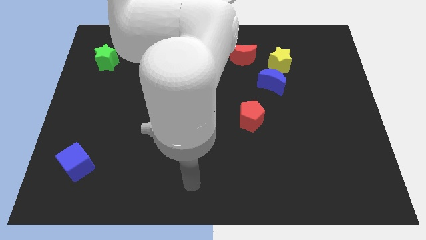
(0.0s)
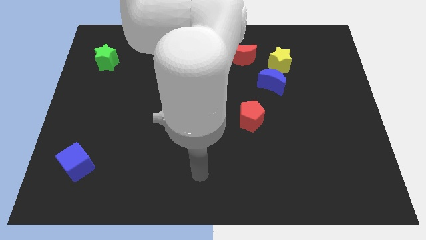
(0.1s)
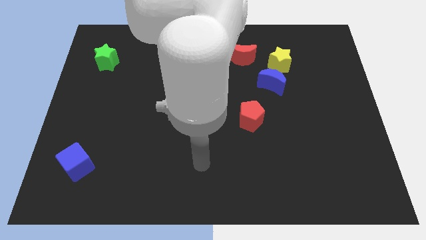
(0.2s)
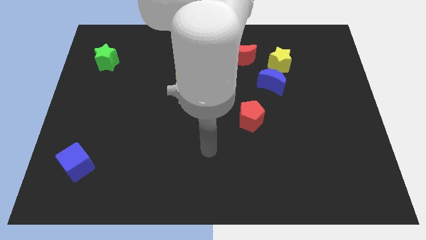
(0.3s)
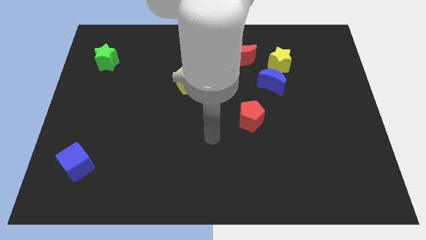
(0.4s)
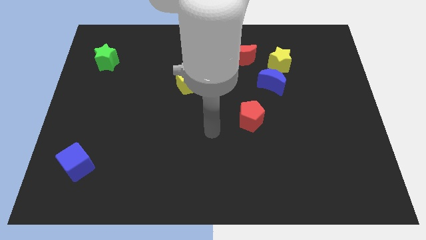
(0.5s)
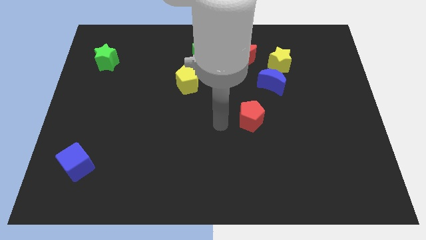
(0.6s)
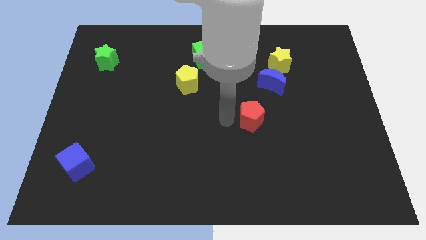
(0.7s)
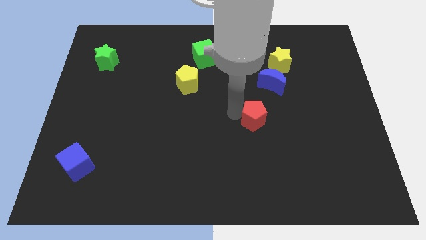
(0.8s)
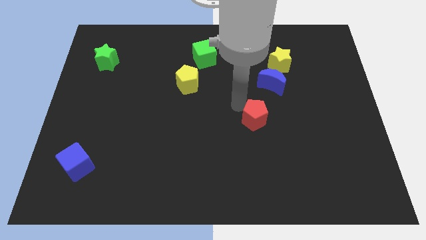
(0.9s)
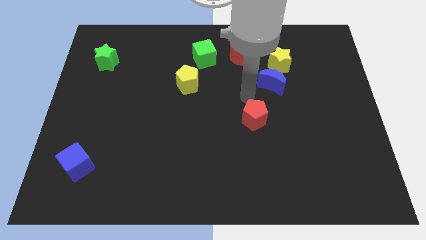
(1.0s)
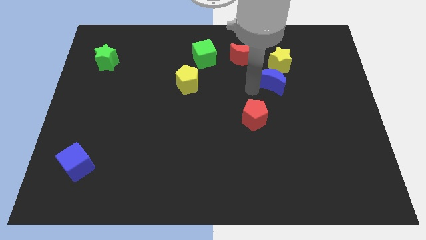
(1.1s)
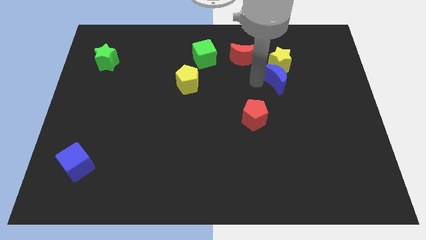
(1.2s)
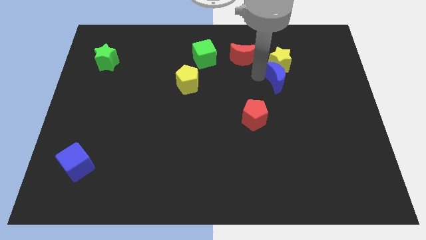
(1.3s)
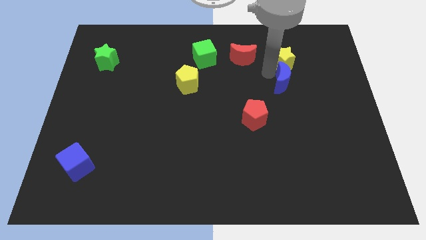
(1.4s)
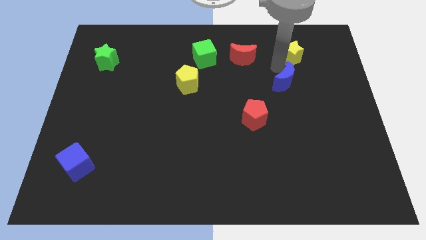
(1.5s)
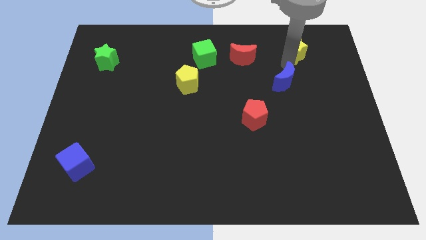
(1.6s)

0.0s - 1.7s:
move the blue moon away from the yellow star

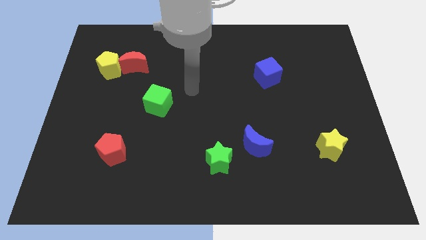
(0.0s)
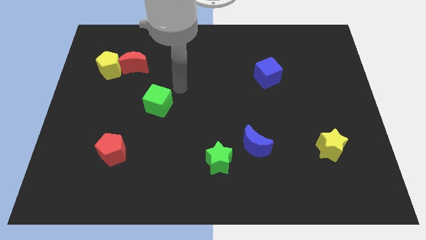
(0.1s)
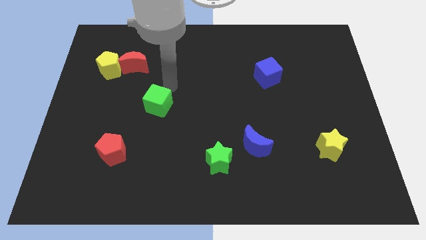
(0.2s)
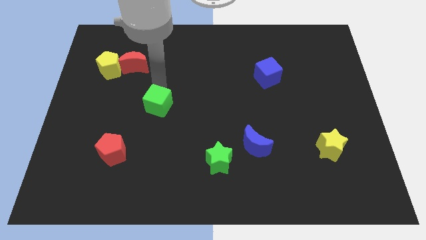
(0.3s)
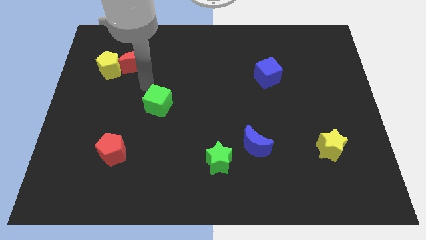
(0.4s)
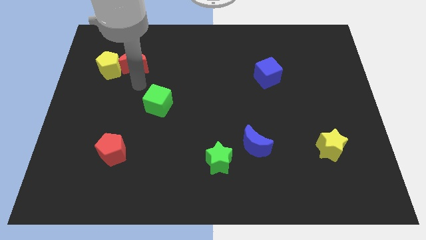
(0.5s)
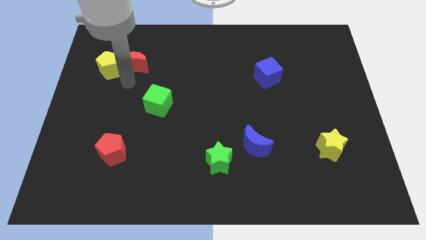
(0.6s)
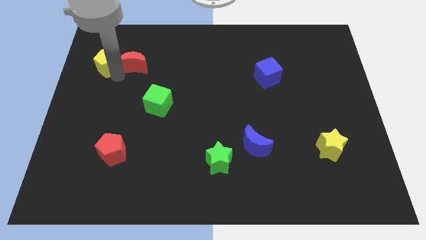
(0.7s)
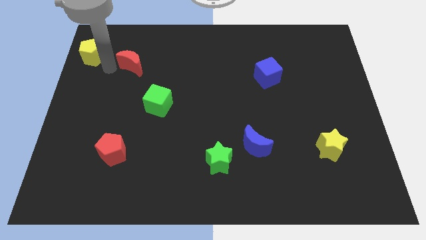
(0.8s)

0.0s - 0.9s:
separate the red moon from the yellow pentagon

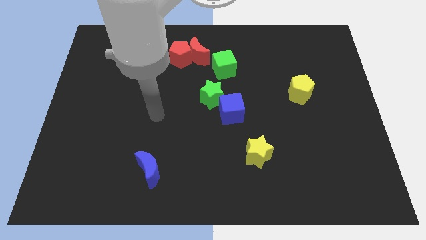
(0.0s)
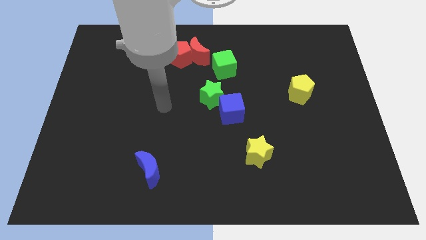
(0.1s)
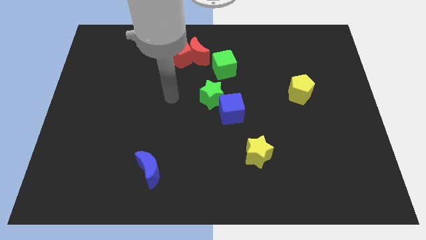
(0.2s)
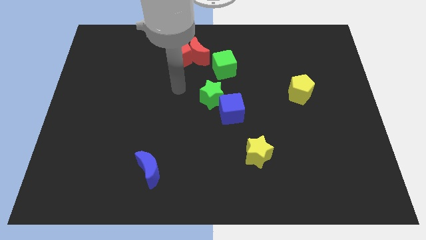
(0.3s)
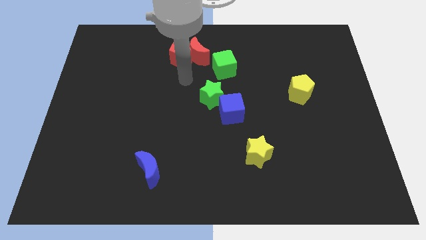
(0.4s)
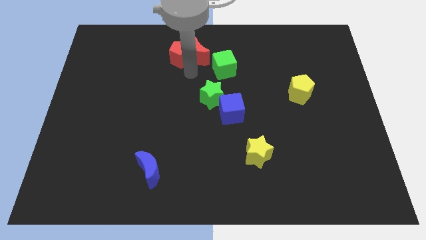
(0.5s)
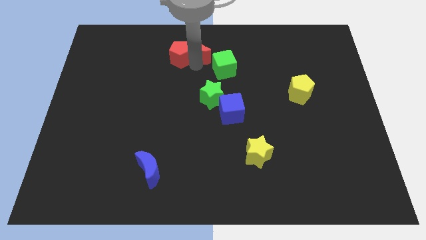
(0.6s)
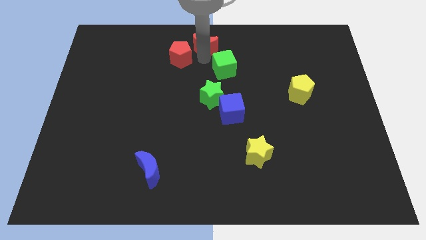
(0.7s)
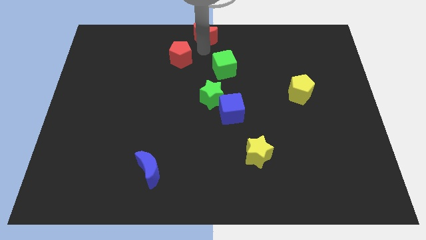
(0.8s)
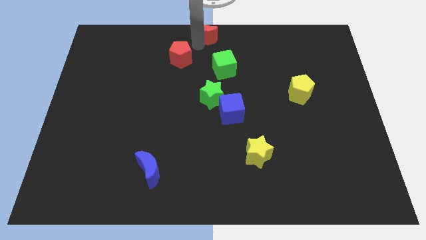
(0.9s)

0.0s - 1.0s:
pull the red pentagon apart from the red moon

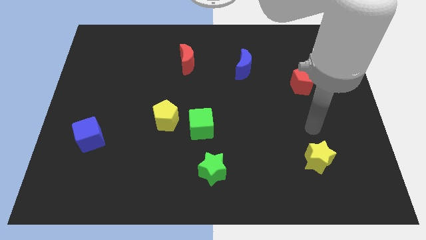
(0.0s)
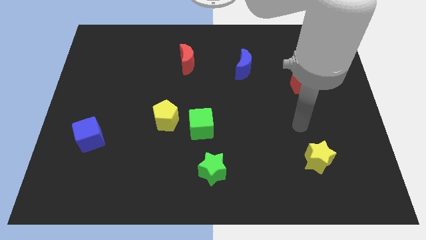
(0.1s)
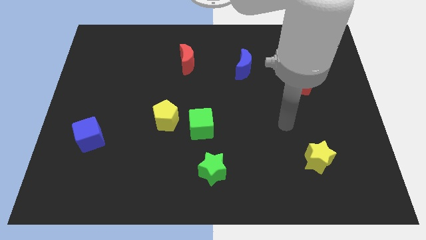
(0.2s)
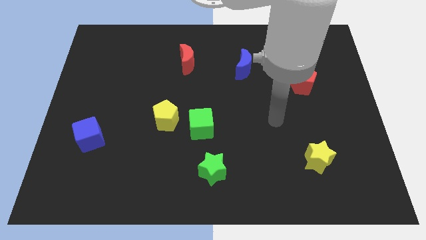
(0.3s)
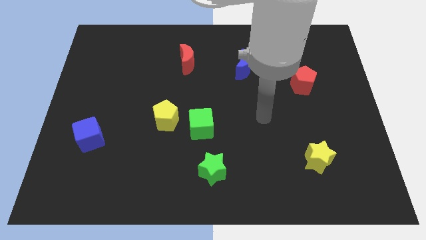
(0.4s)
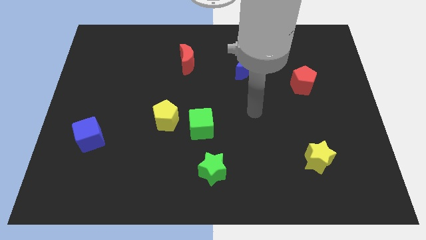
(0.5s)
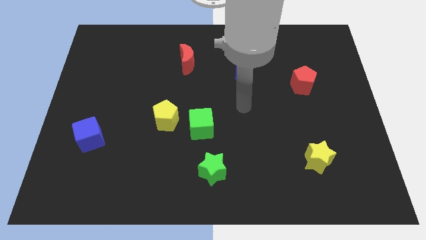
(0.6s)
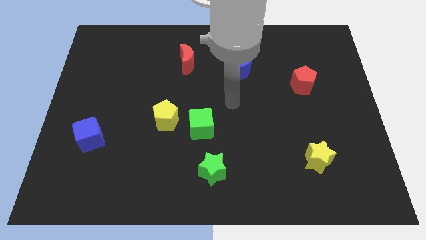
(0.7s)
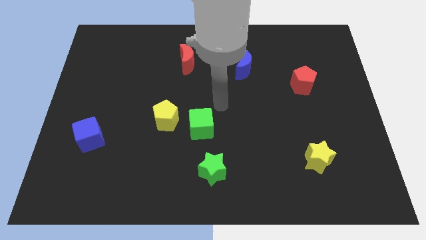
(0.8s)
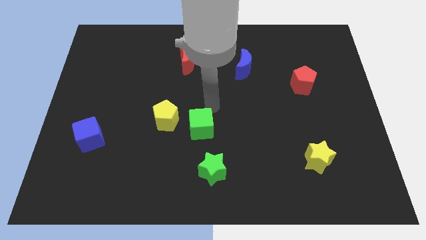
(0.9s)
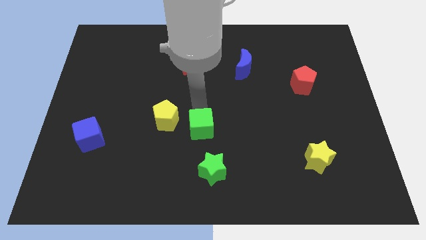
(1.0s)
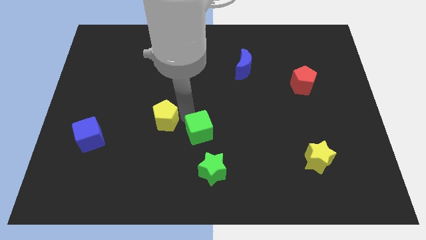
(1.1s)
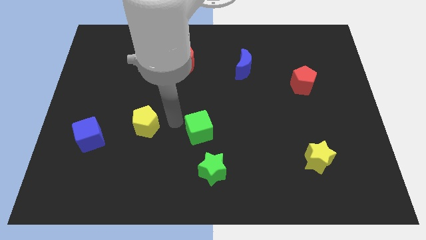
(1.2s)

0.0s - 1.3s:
move the green cube away from the yellow pentagon

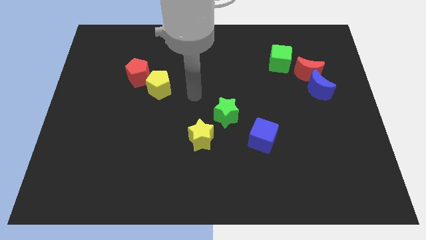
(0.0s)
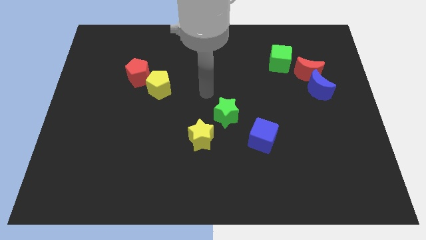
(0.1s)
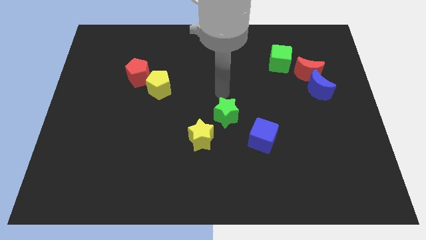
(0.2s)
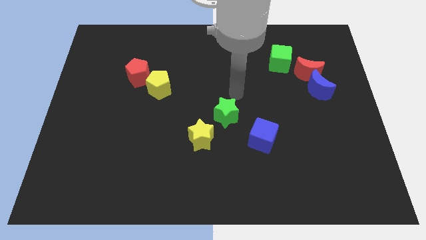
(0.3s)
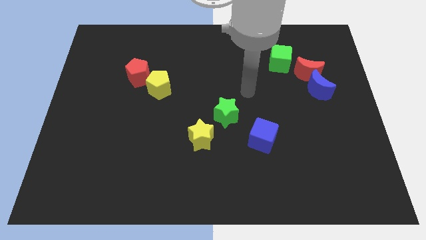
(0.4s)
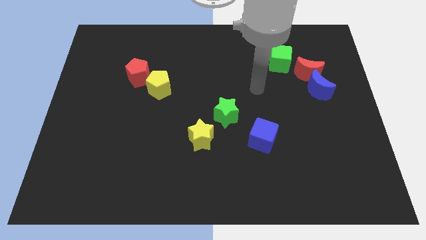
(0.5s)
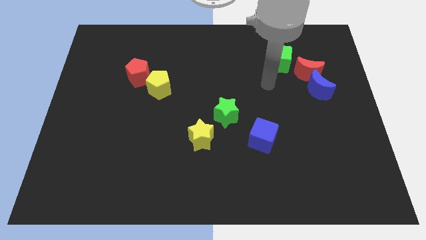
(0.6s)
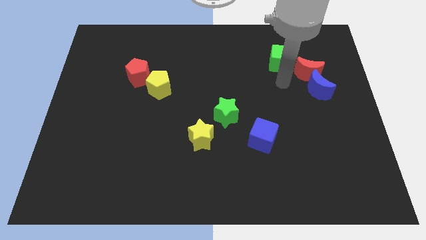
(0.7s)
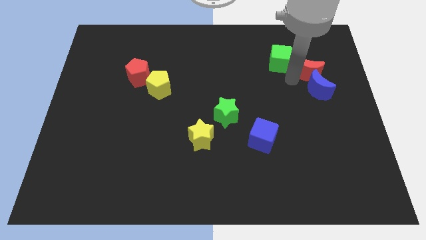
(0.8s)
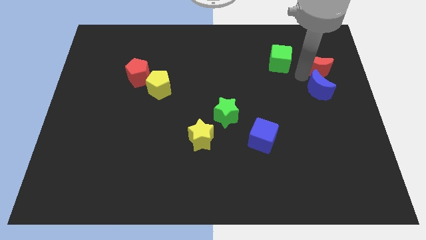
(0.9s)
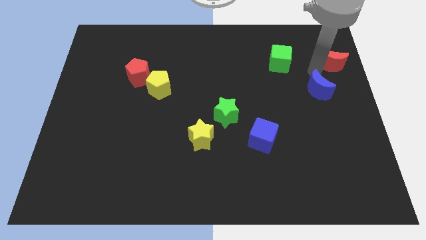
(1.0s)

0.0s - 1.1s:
pull the blue moon apart from the red moon

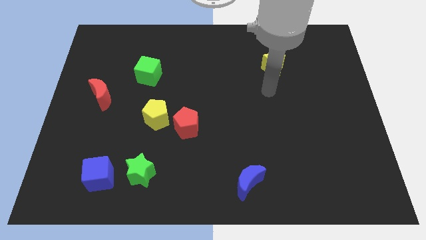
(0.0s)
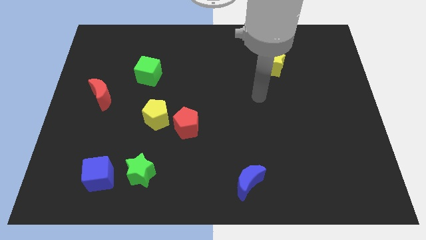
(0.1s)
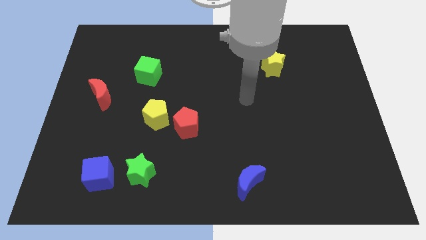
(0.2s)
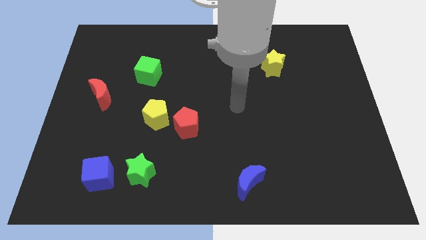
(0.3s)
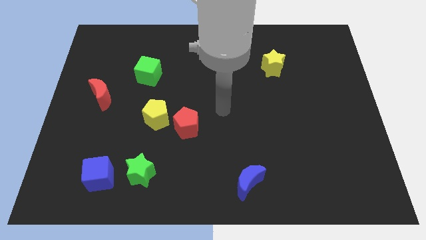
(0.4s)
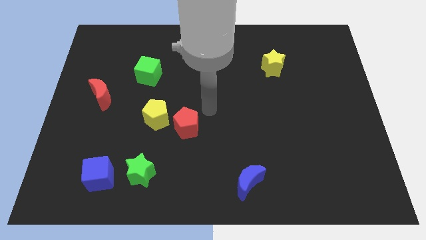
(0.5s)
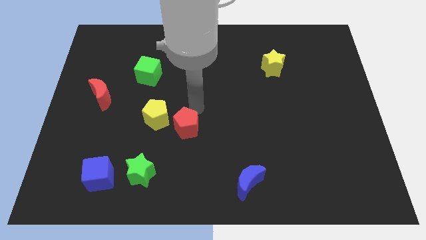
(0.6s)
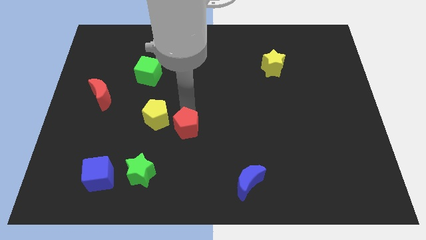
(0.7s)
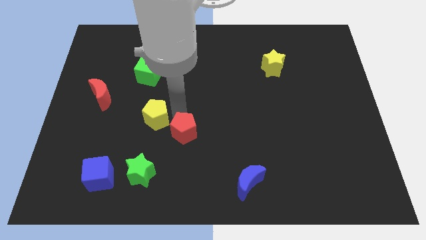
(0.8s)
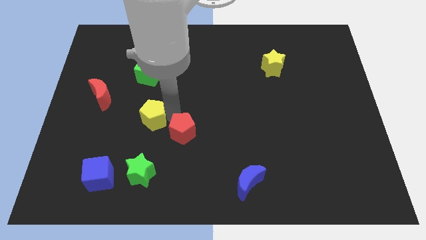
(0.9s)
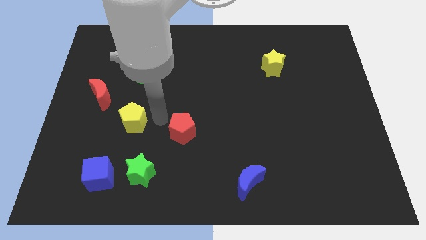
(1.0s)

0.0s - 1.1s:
move the red pentagon away from the yellow pentagon

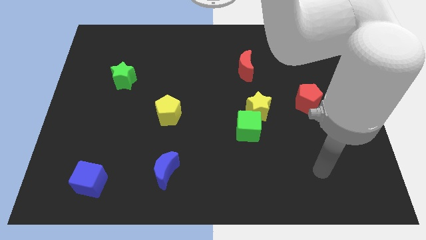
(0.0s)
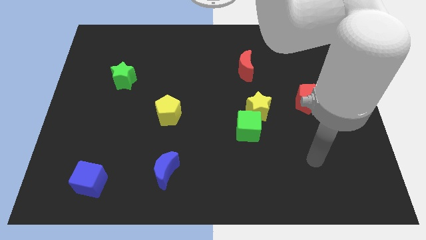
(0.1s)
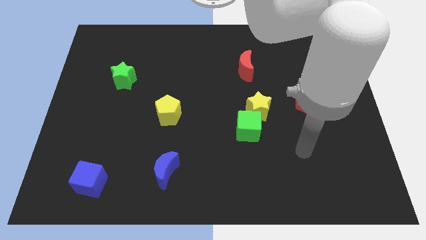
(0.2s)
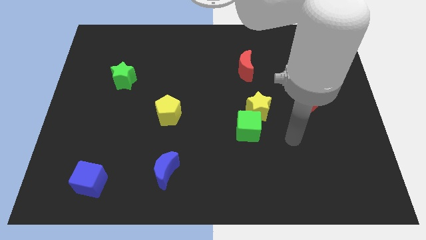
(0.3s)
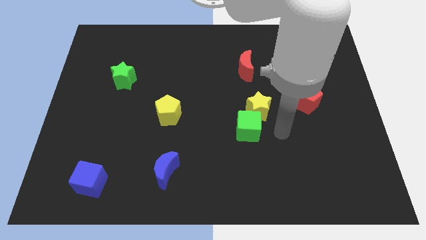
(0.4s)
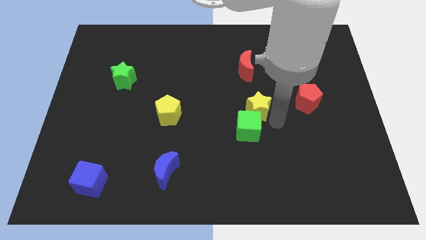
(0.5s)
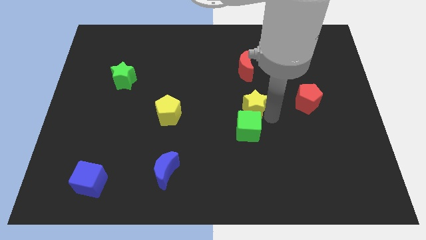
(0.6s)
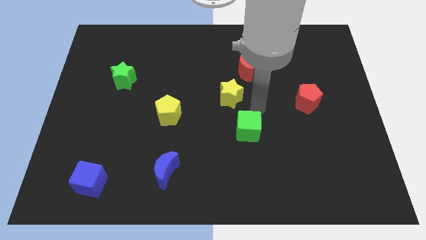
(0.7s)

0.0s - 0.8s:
move the green cube away from the yellow star

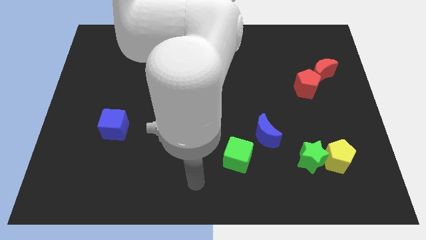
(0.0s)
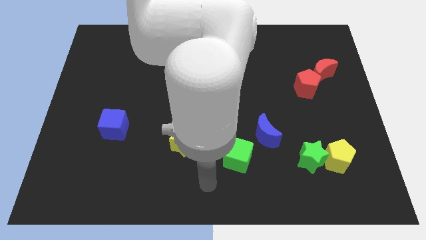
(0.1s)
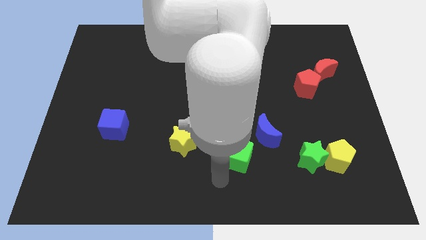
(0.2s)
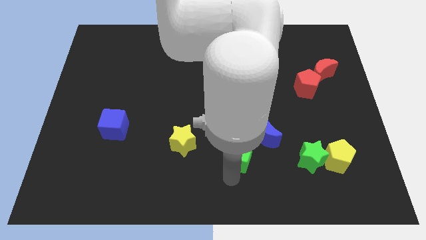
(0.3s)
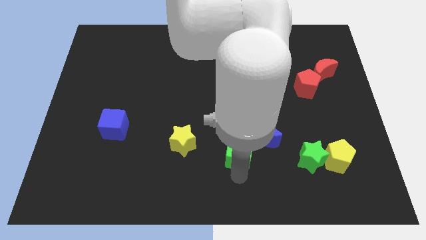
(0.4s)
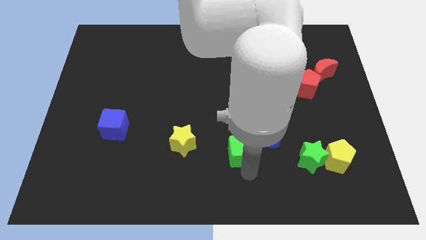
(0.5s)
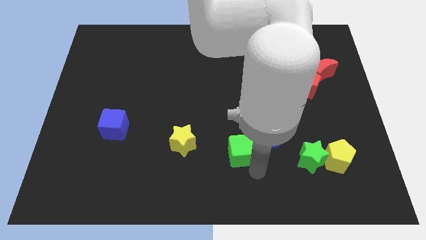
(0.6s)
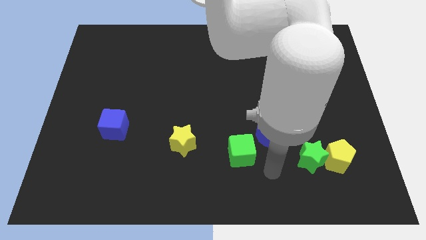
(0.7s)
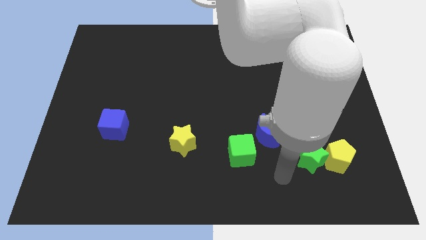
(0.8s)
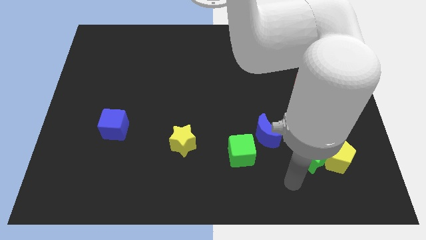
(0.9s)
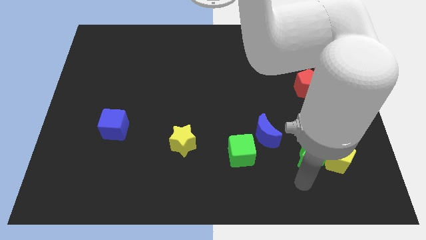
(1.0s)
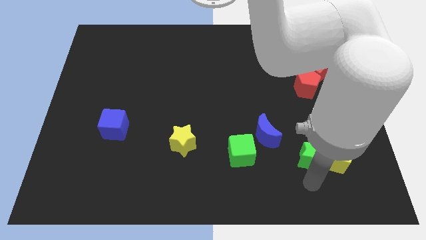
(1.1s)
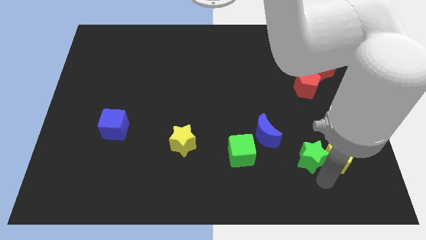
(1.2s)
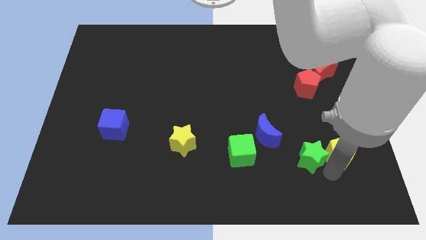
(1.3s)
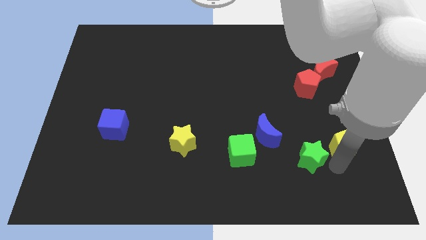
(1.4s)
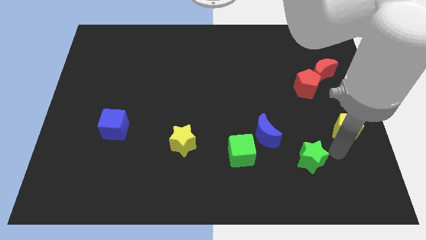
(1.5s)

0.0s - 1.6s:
pull the green star apart from the yellow pentagon

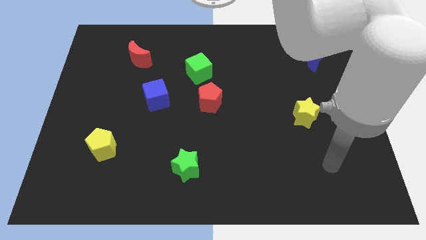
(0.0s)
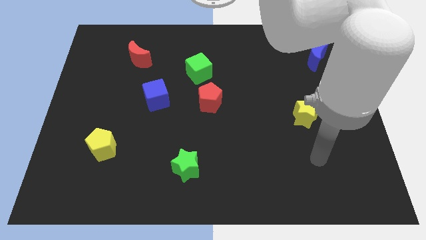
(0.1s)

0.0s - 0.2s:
pull the red pentagon apart from the green cube
